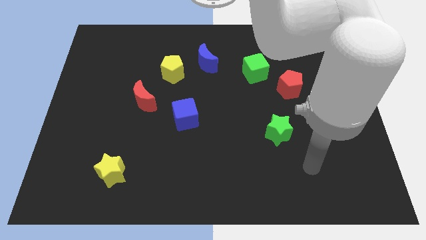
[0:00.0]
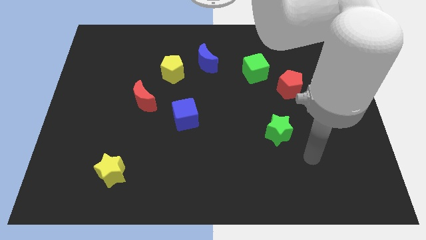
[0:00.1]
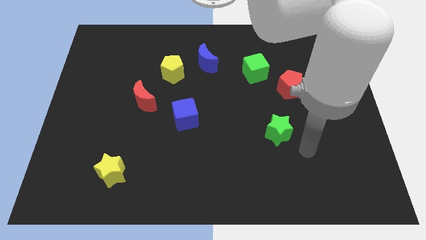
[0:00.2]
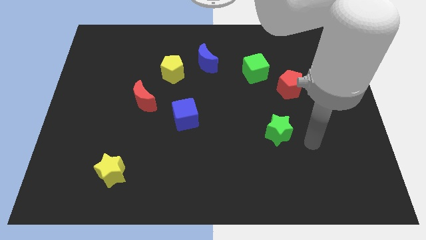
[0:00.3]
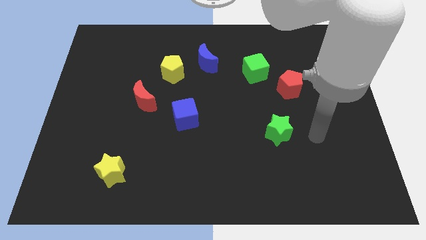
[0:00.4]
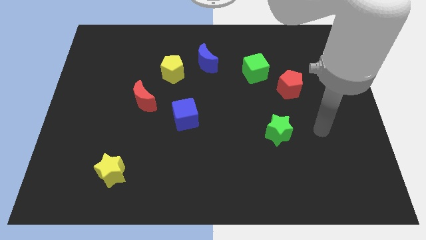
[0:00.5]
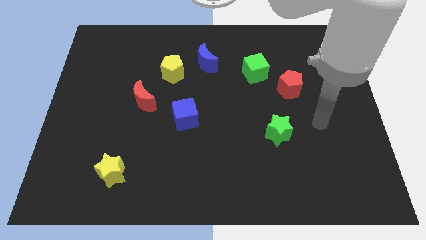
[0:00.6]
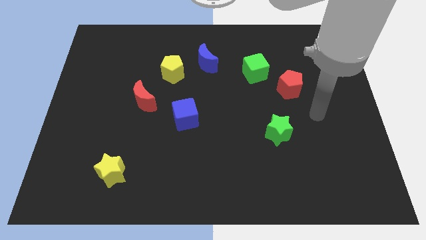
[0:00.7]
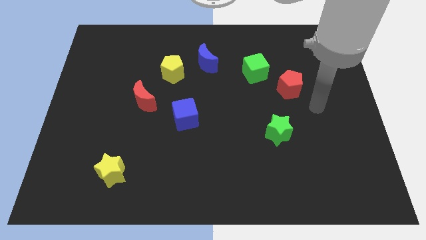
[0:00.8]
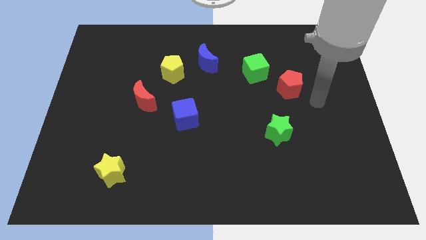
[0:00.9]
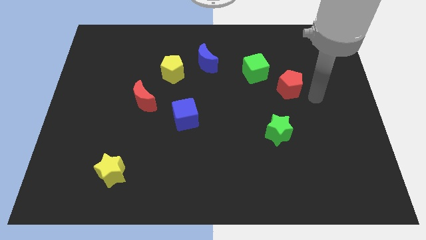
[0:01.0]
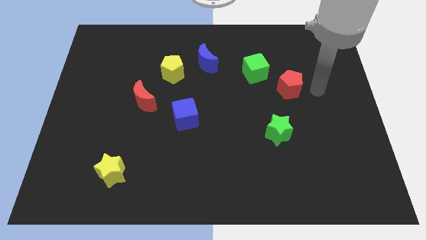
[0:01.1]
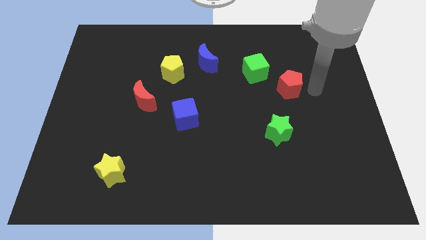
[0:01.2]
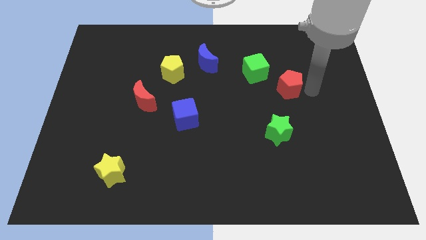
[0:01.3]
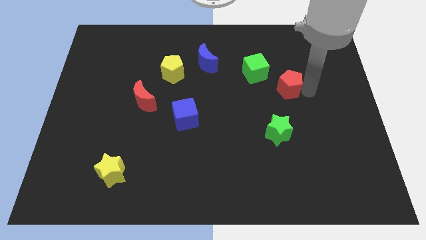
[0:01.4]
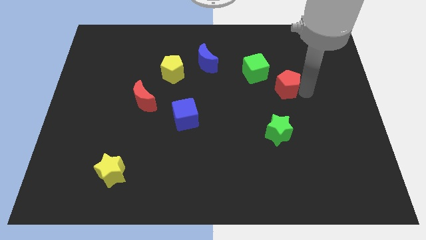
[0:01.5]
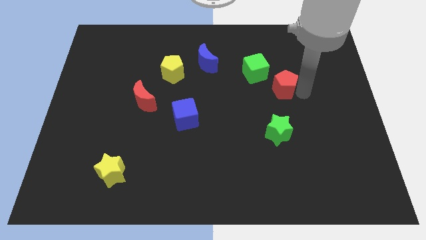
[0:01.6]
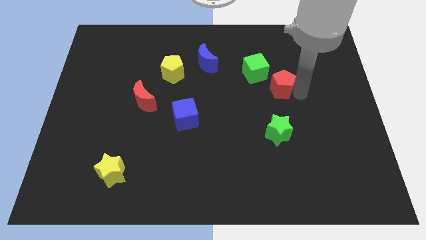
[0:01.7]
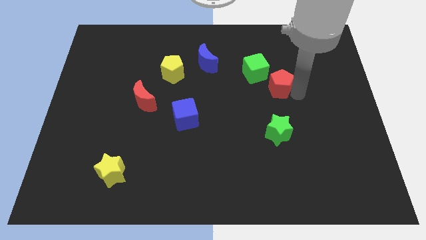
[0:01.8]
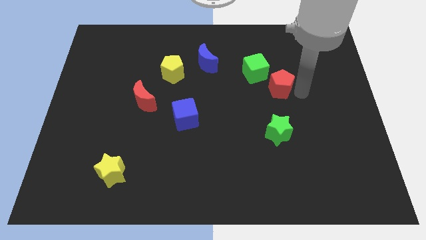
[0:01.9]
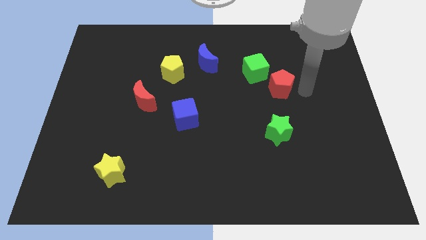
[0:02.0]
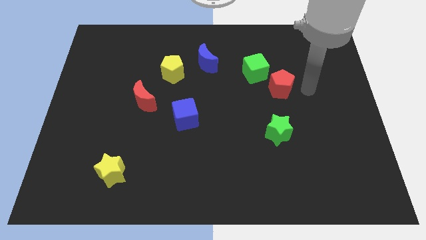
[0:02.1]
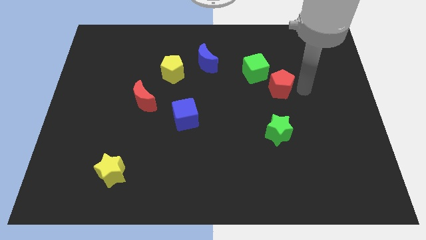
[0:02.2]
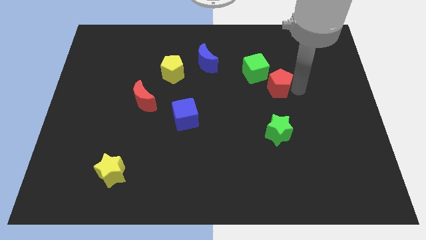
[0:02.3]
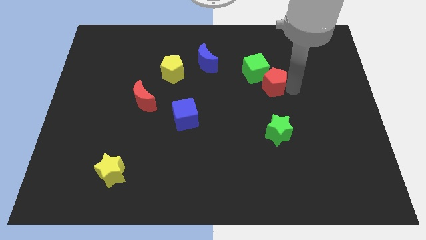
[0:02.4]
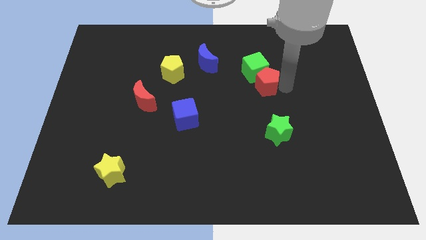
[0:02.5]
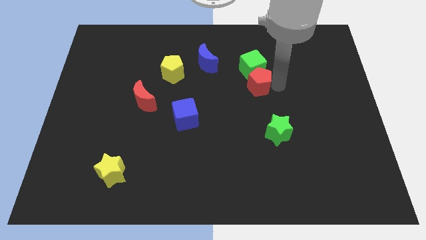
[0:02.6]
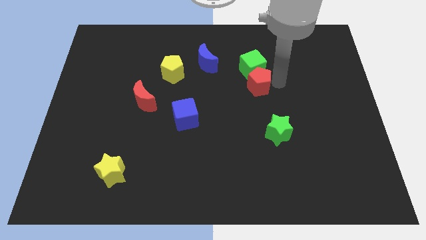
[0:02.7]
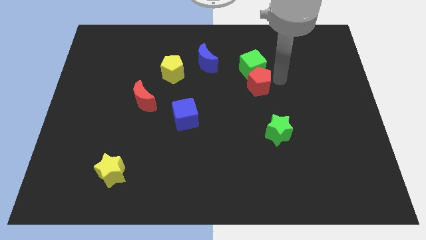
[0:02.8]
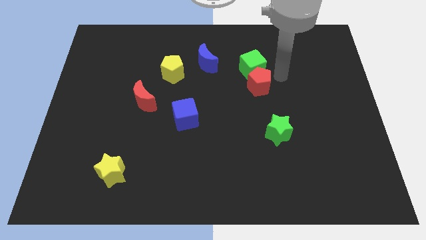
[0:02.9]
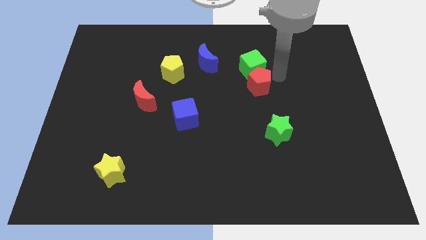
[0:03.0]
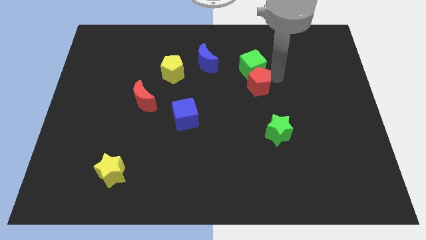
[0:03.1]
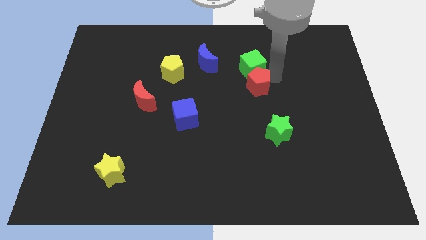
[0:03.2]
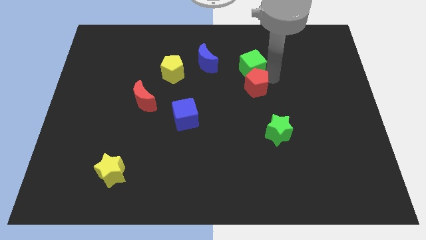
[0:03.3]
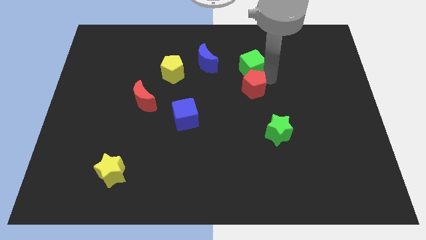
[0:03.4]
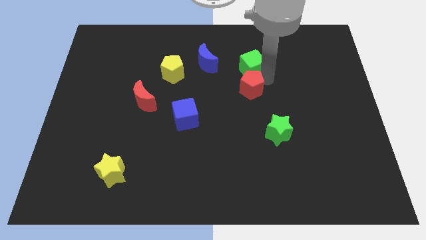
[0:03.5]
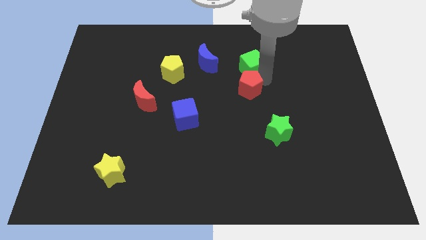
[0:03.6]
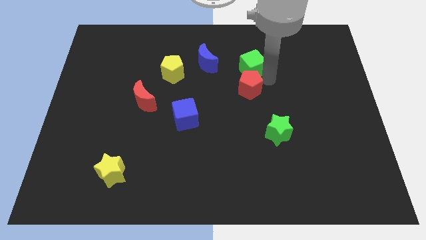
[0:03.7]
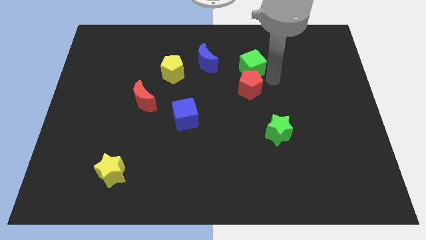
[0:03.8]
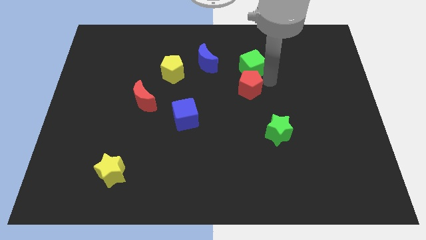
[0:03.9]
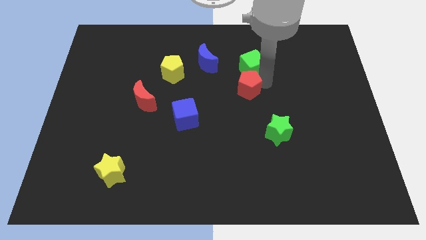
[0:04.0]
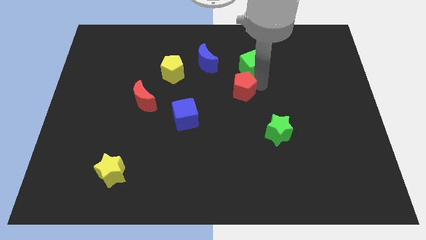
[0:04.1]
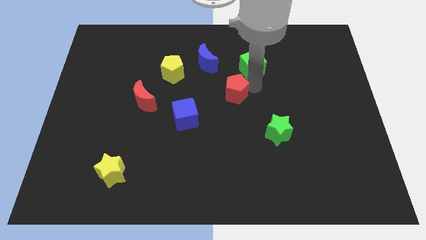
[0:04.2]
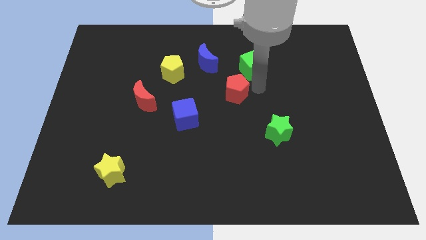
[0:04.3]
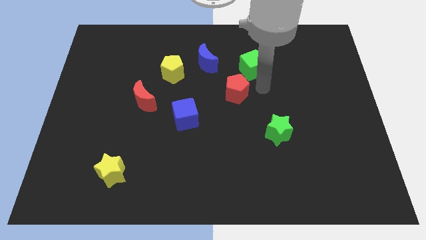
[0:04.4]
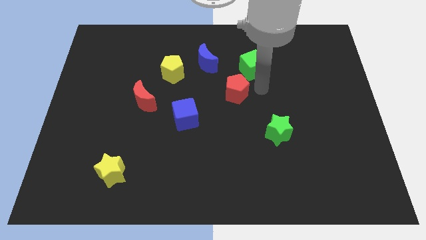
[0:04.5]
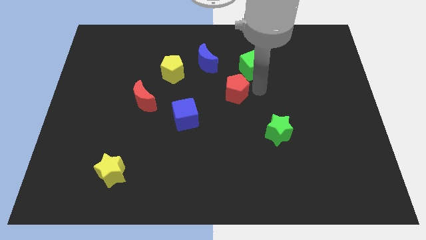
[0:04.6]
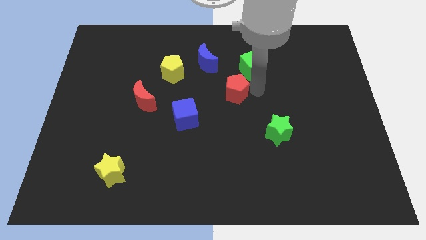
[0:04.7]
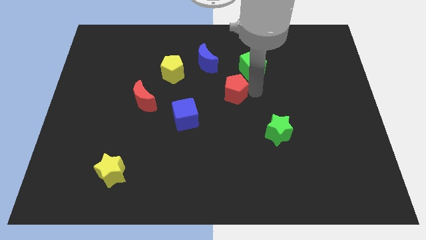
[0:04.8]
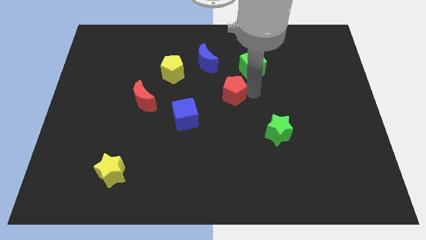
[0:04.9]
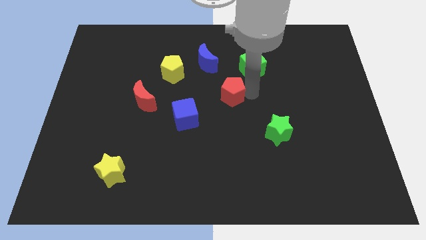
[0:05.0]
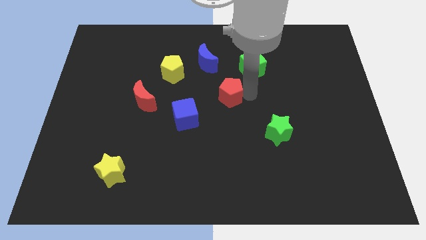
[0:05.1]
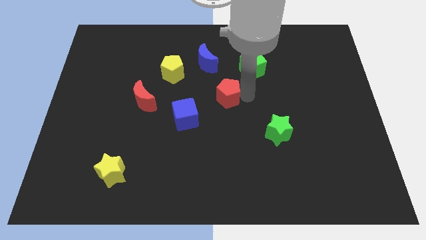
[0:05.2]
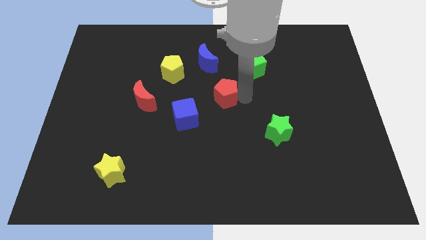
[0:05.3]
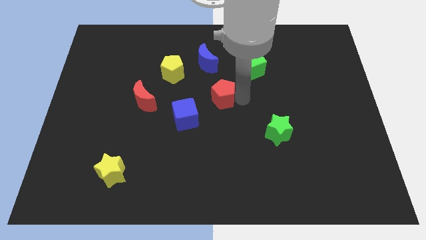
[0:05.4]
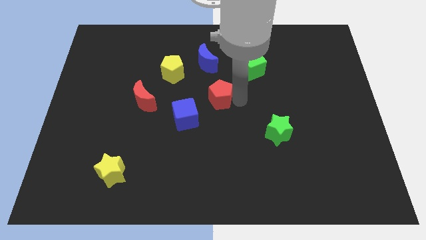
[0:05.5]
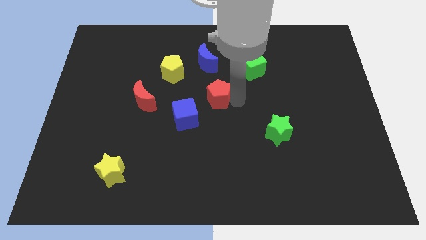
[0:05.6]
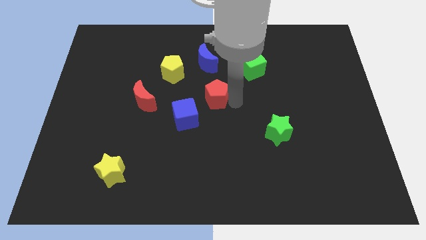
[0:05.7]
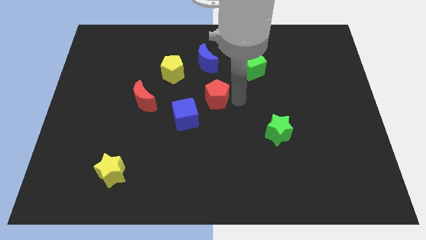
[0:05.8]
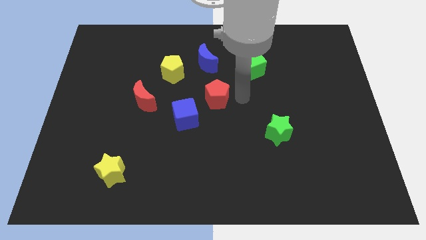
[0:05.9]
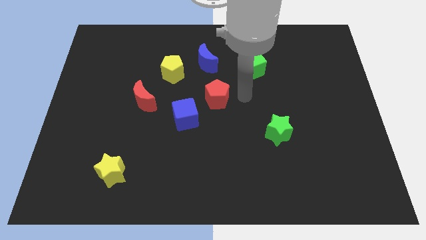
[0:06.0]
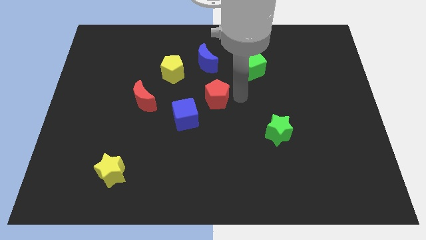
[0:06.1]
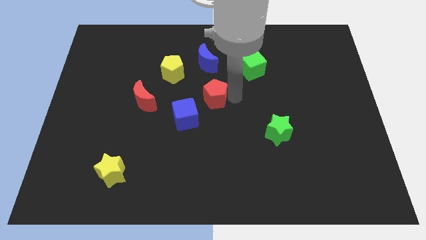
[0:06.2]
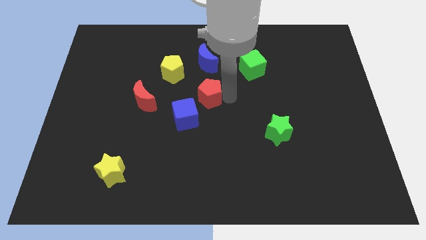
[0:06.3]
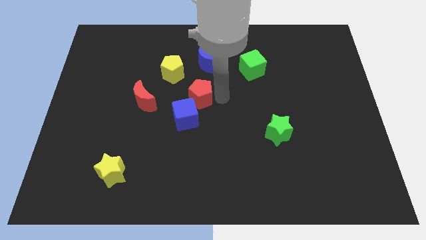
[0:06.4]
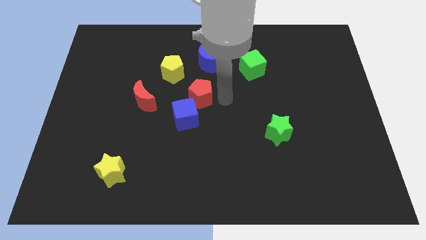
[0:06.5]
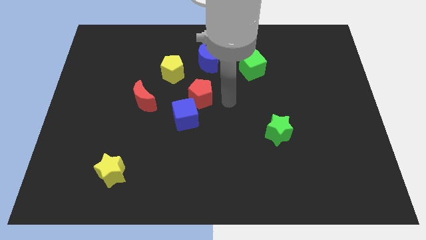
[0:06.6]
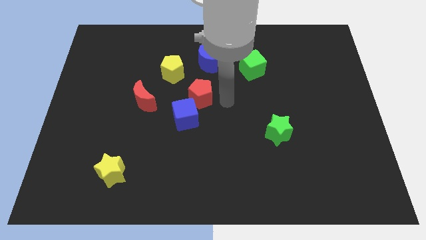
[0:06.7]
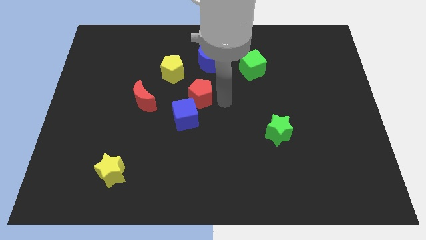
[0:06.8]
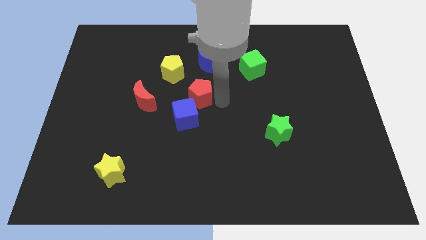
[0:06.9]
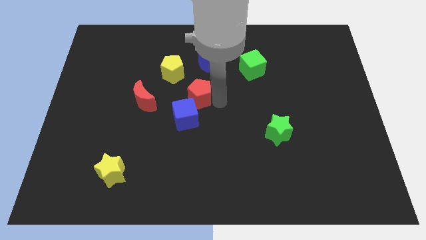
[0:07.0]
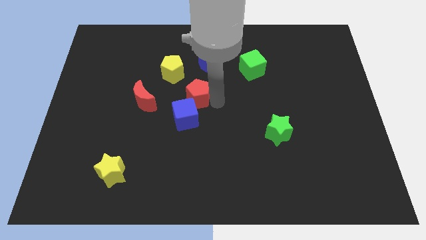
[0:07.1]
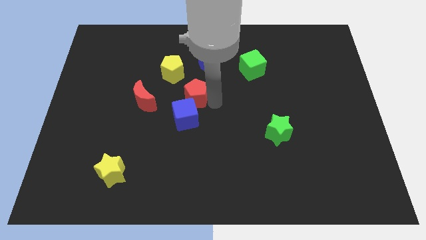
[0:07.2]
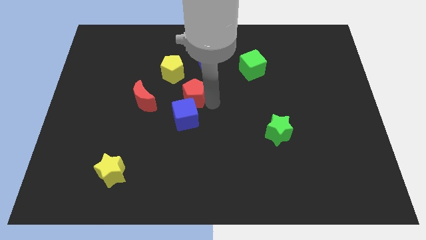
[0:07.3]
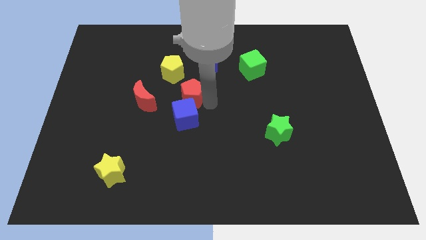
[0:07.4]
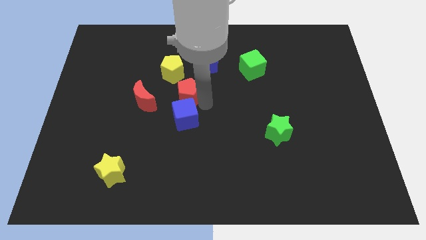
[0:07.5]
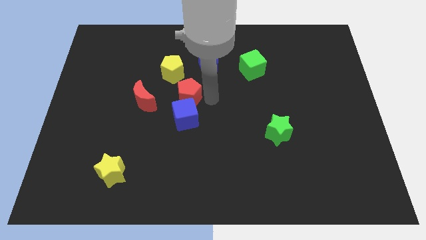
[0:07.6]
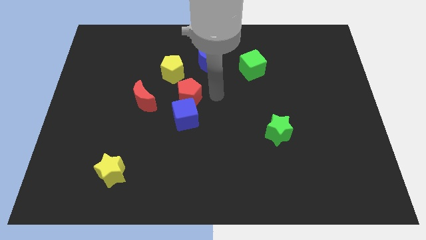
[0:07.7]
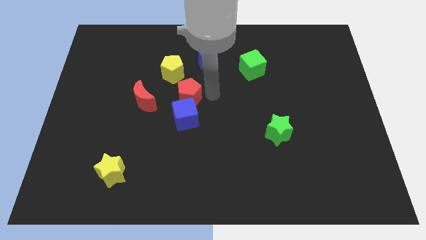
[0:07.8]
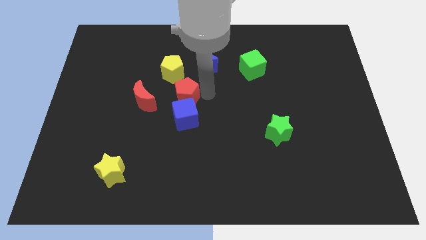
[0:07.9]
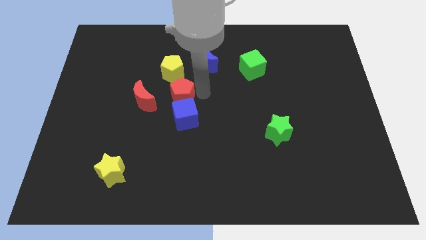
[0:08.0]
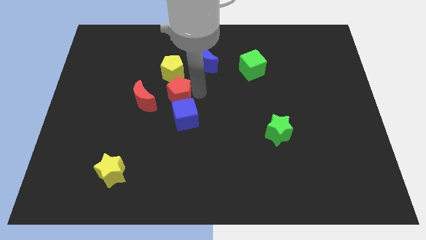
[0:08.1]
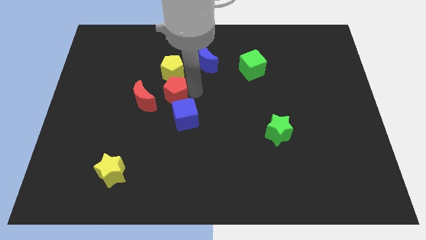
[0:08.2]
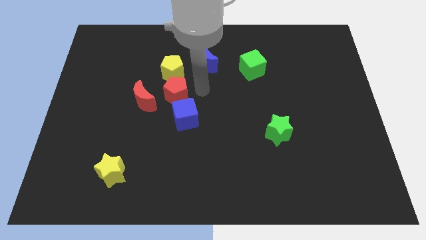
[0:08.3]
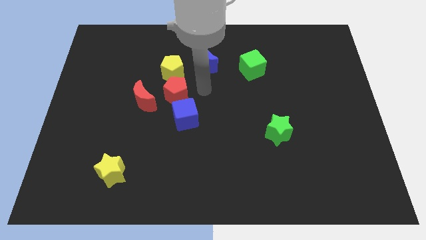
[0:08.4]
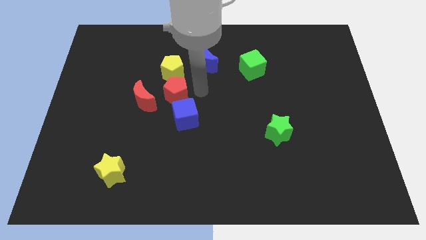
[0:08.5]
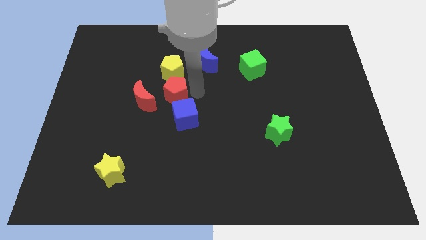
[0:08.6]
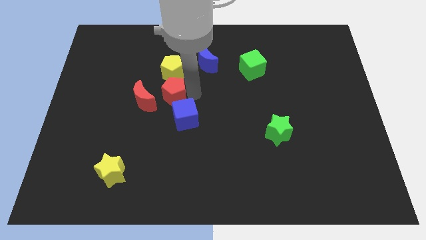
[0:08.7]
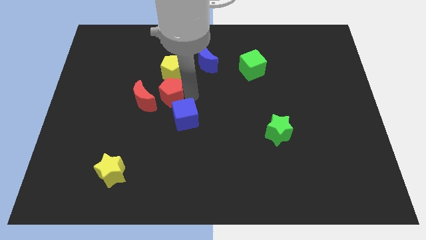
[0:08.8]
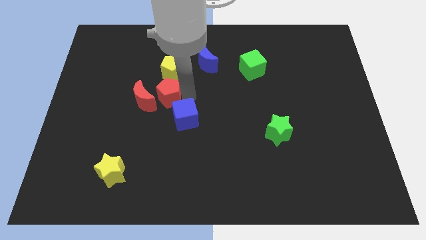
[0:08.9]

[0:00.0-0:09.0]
push the red pentagon next to the red moon
